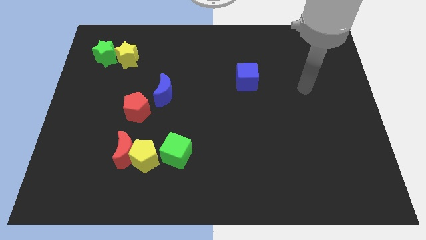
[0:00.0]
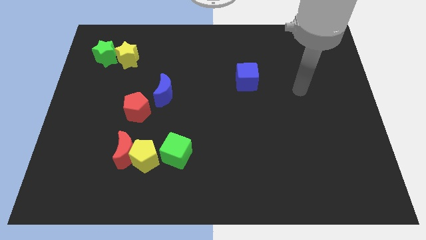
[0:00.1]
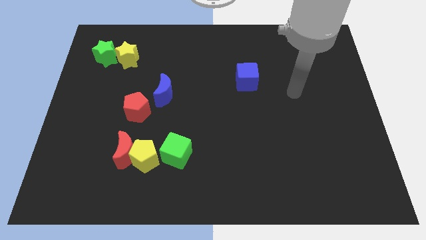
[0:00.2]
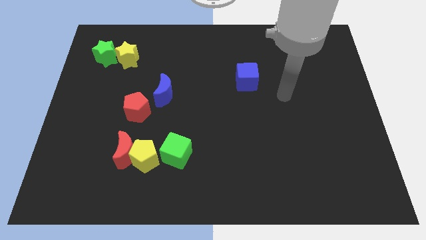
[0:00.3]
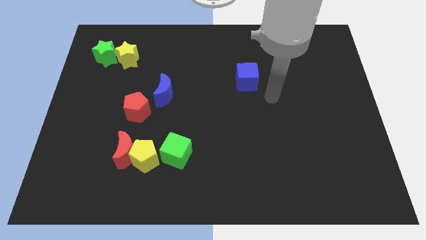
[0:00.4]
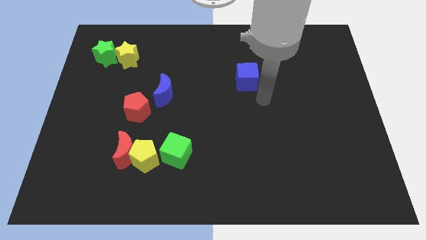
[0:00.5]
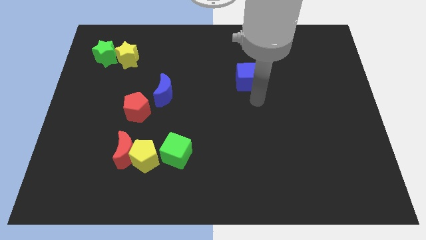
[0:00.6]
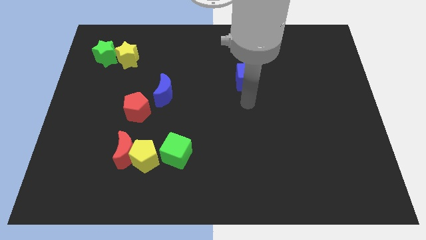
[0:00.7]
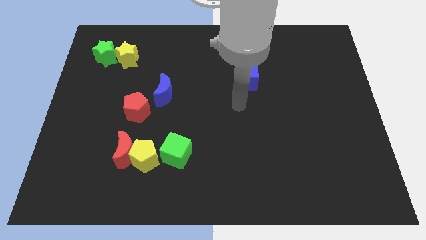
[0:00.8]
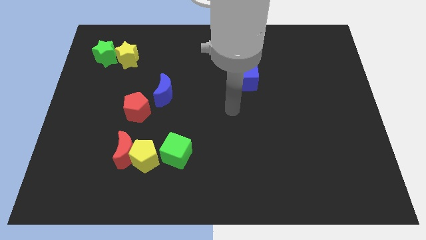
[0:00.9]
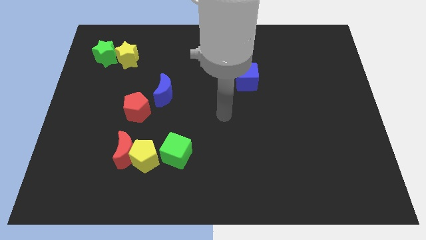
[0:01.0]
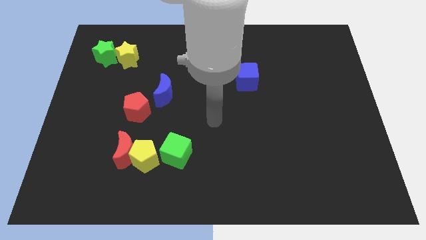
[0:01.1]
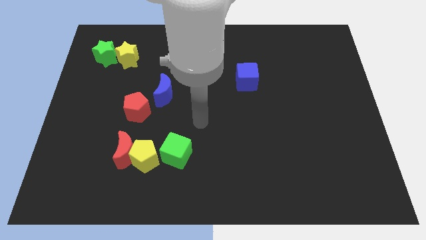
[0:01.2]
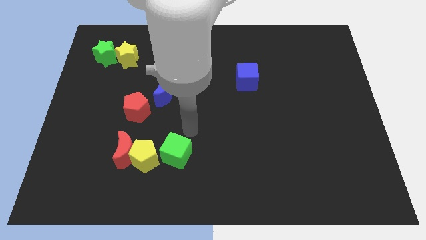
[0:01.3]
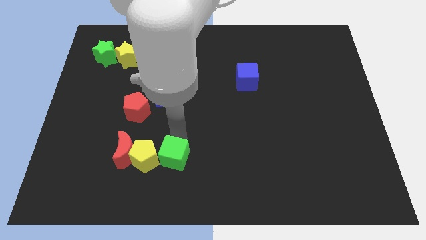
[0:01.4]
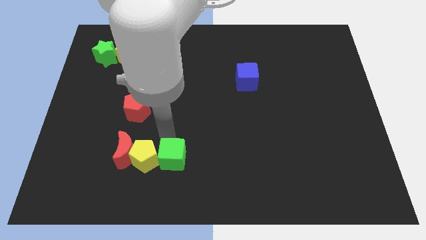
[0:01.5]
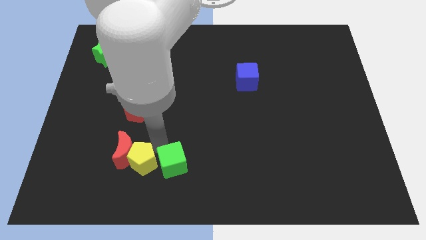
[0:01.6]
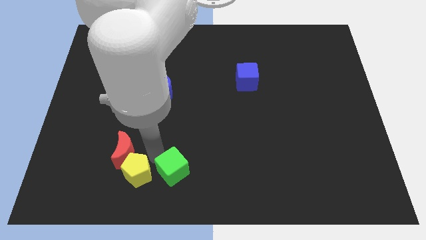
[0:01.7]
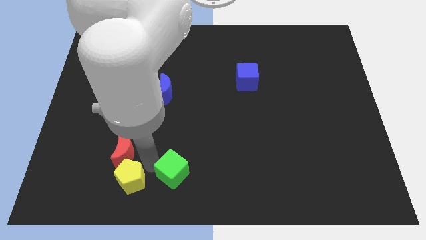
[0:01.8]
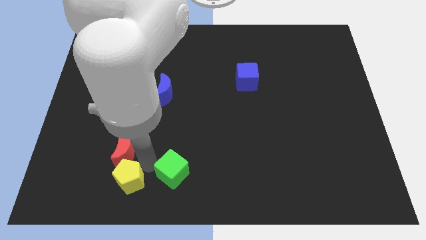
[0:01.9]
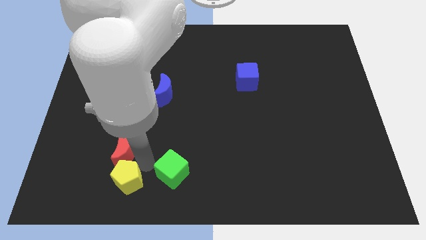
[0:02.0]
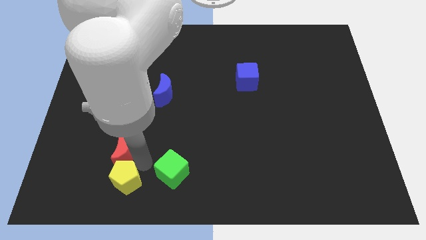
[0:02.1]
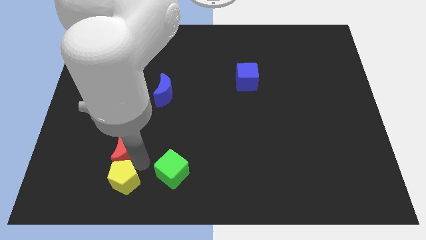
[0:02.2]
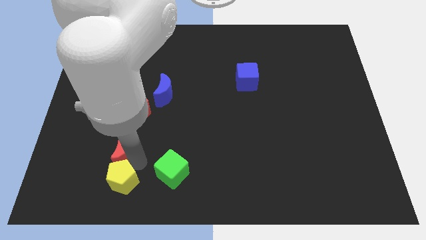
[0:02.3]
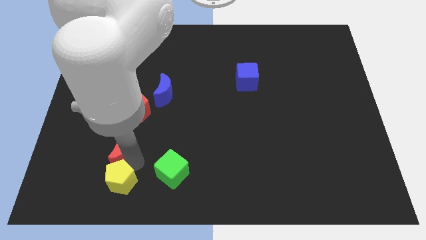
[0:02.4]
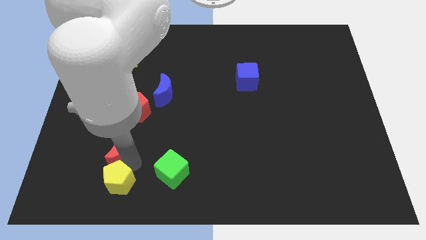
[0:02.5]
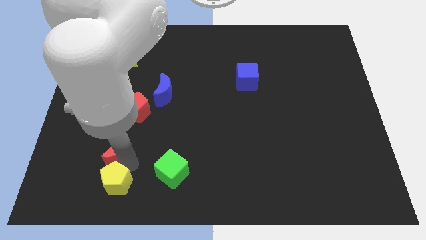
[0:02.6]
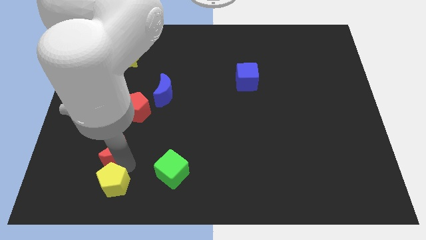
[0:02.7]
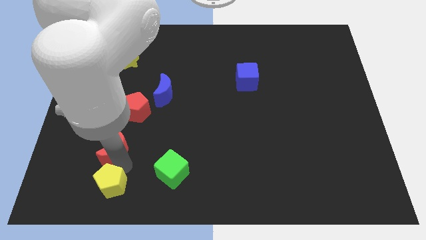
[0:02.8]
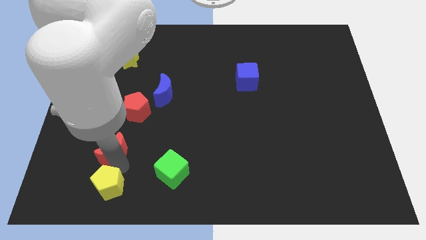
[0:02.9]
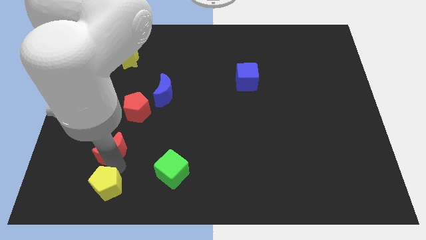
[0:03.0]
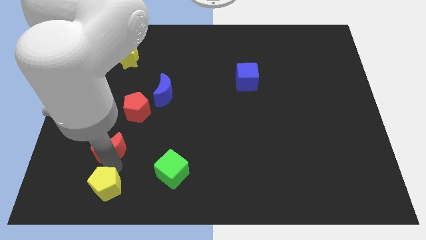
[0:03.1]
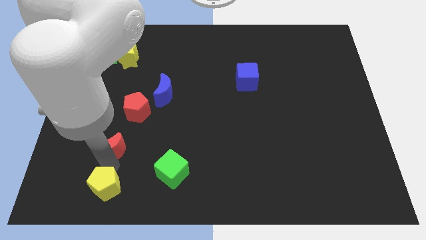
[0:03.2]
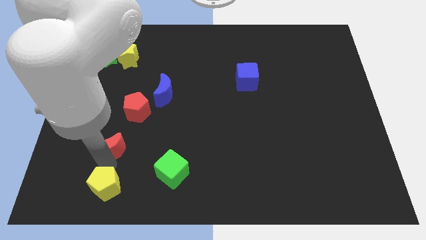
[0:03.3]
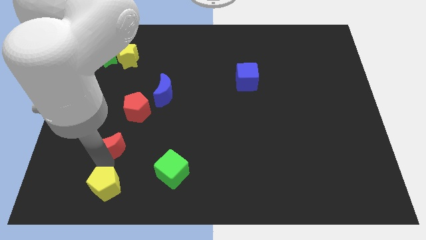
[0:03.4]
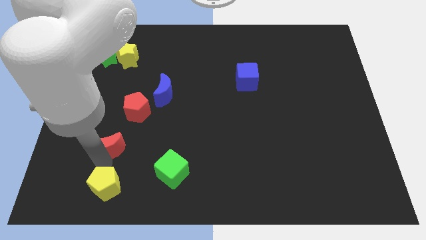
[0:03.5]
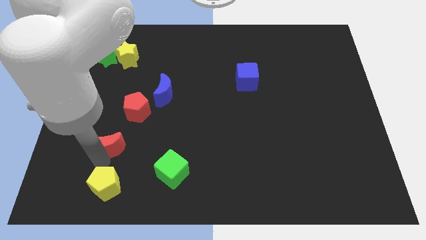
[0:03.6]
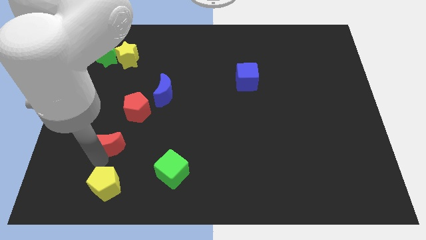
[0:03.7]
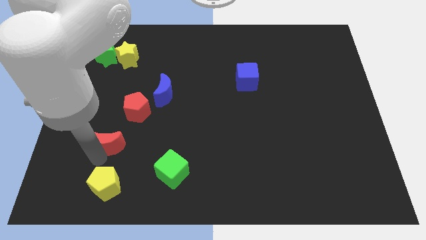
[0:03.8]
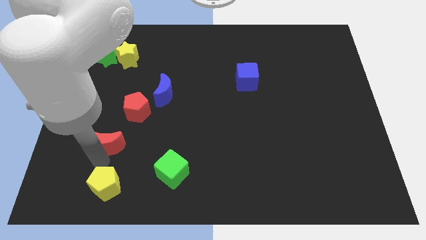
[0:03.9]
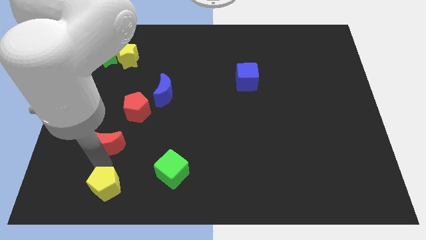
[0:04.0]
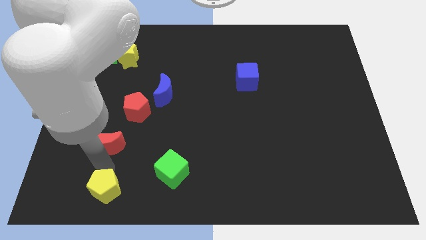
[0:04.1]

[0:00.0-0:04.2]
move the red moon away from the yellow pentagon

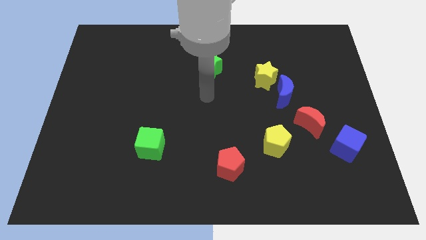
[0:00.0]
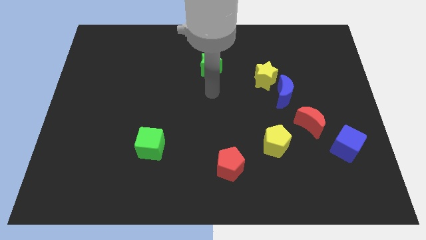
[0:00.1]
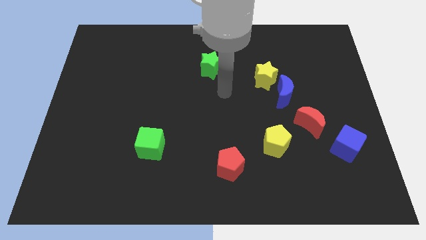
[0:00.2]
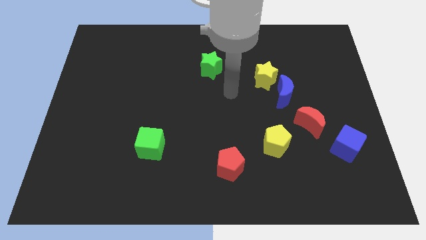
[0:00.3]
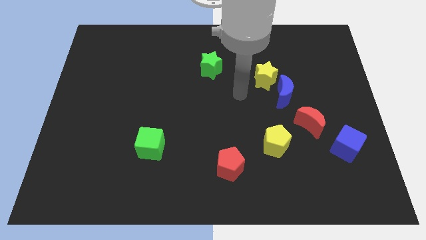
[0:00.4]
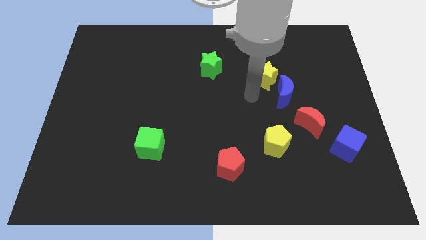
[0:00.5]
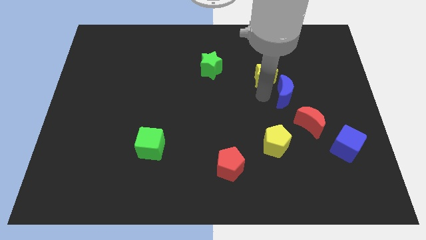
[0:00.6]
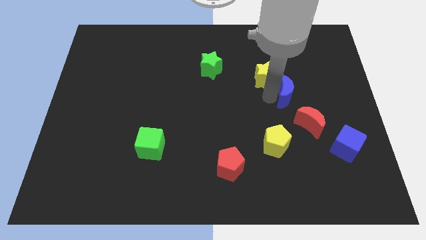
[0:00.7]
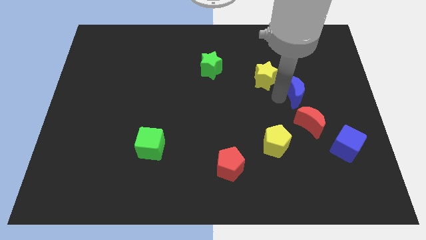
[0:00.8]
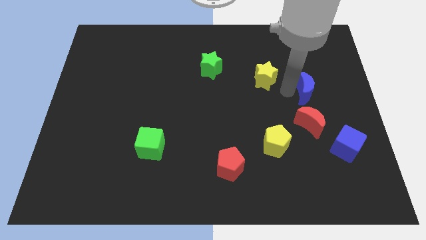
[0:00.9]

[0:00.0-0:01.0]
separate the yellow star from the blue moon

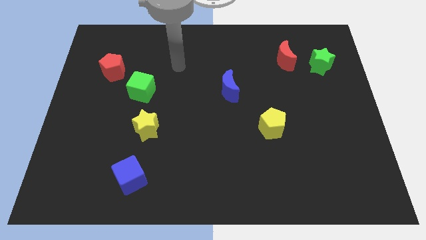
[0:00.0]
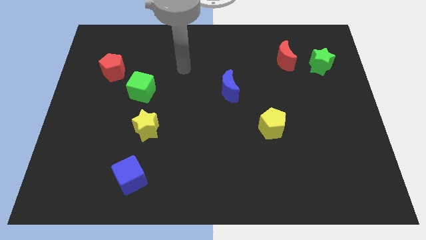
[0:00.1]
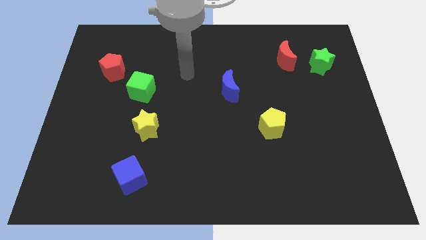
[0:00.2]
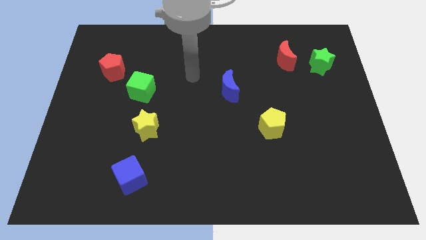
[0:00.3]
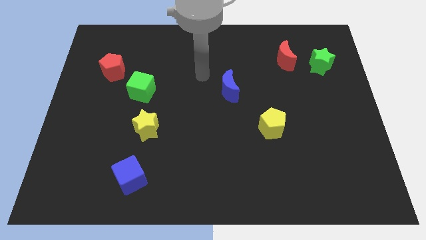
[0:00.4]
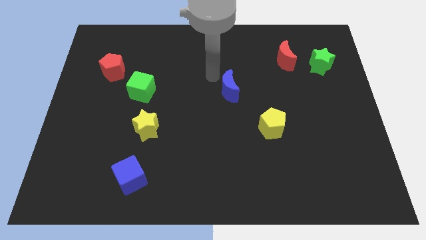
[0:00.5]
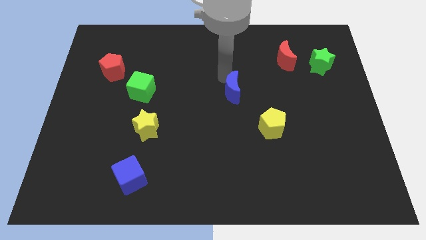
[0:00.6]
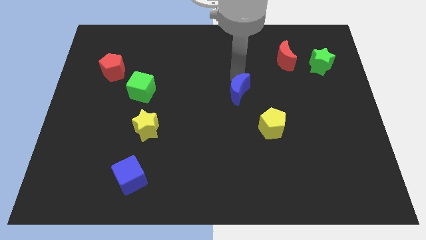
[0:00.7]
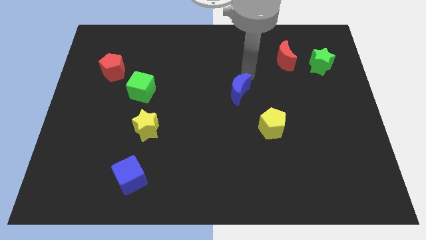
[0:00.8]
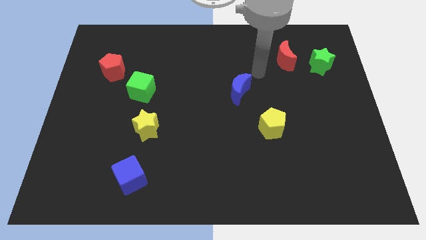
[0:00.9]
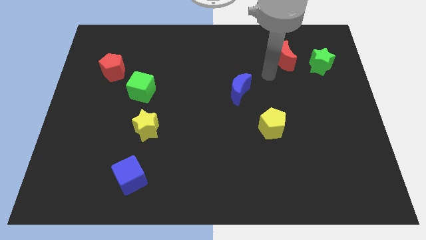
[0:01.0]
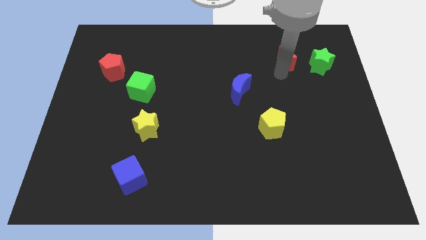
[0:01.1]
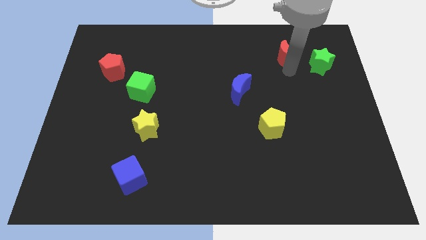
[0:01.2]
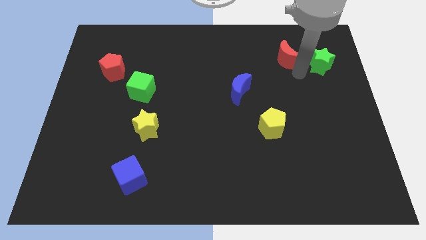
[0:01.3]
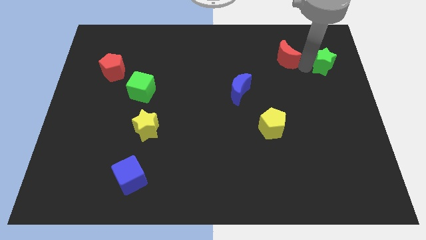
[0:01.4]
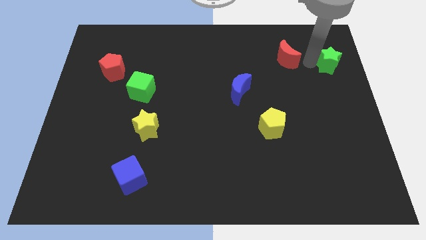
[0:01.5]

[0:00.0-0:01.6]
separate the red moon from the green star

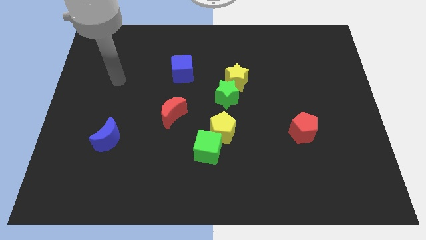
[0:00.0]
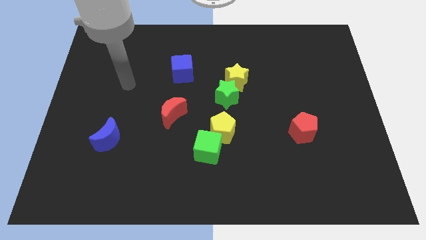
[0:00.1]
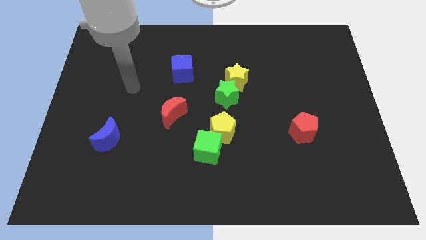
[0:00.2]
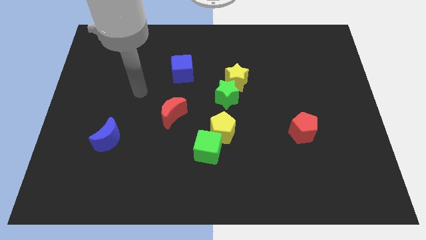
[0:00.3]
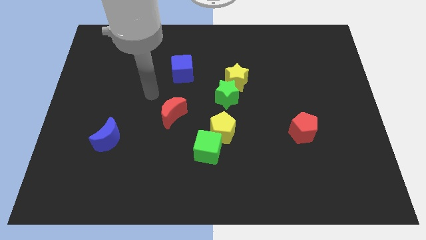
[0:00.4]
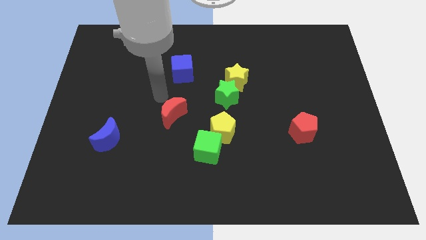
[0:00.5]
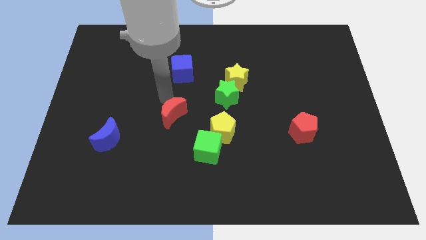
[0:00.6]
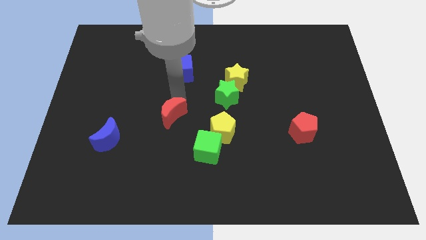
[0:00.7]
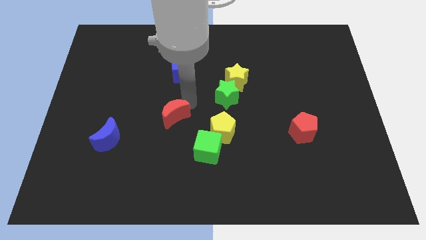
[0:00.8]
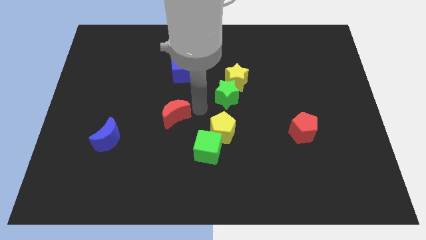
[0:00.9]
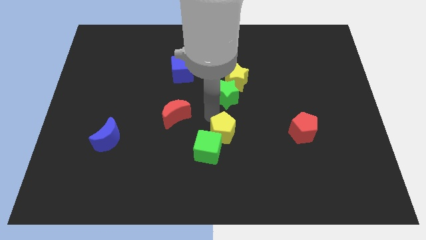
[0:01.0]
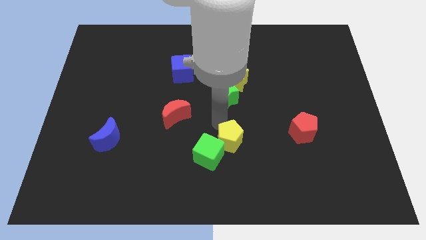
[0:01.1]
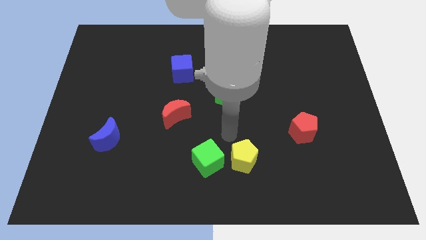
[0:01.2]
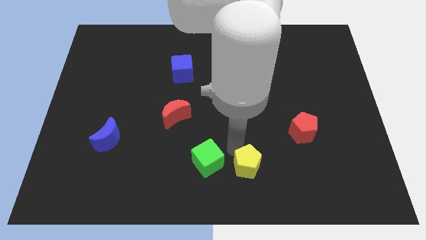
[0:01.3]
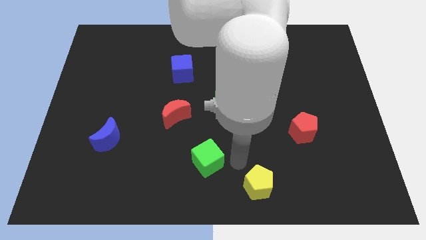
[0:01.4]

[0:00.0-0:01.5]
pull the green cube apart from the yellow pentagon

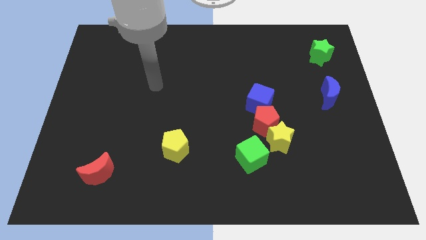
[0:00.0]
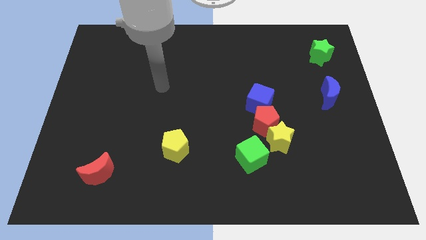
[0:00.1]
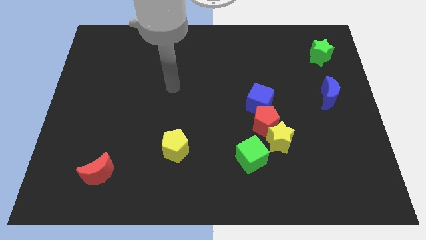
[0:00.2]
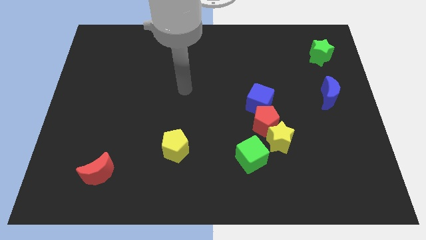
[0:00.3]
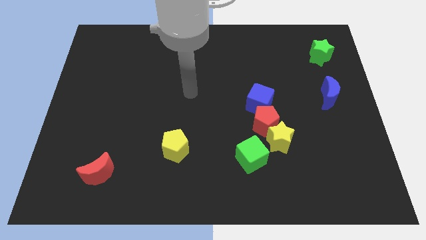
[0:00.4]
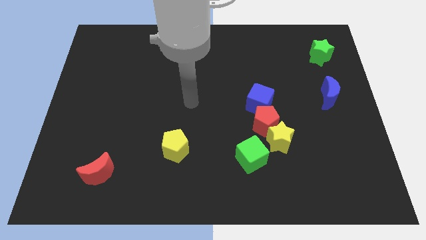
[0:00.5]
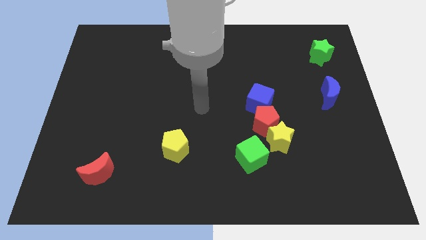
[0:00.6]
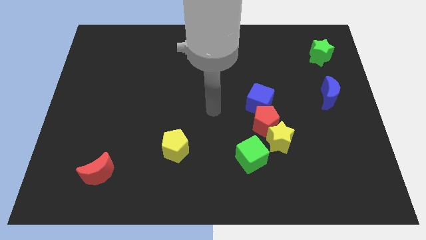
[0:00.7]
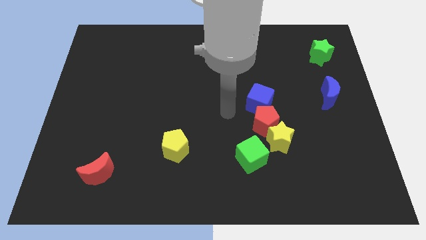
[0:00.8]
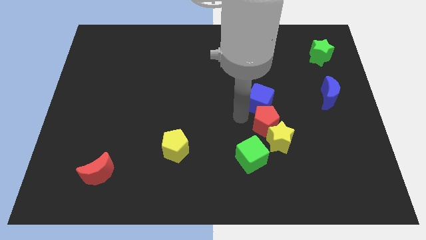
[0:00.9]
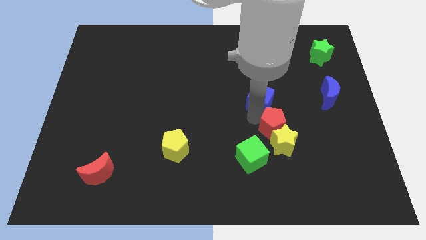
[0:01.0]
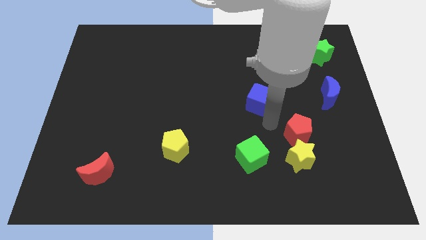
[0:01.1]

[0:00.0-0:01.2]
pull the blue cube apart from the red pentagon
